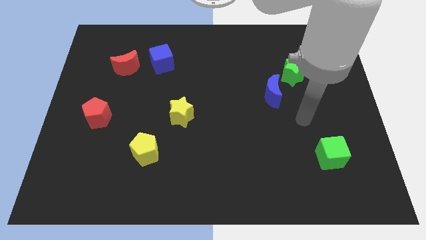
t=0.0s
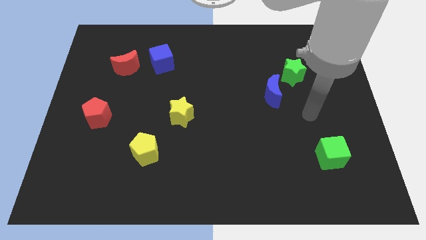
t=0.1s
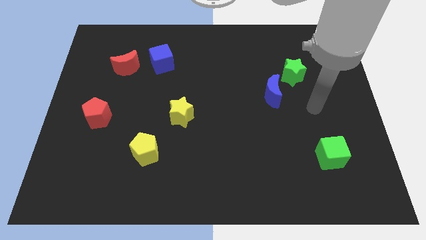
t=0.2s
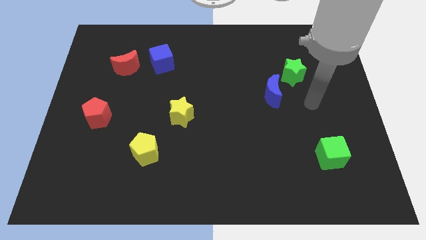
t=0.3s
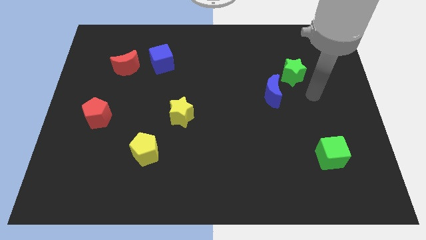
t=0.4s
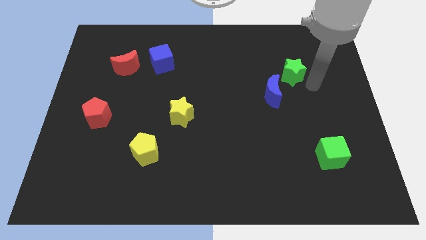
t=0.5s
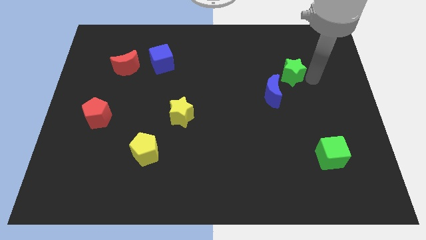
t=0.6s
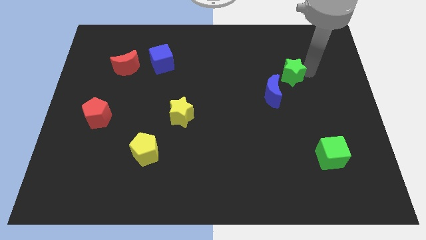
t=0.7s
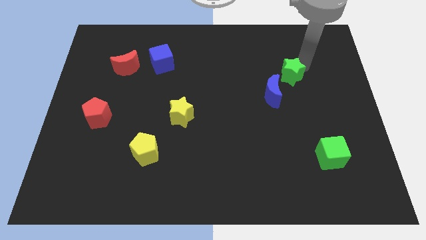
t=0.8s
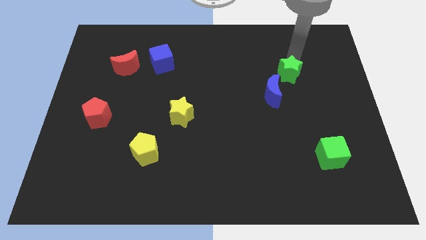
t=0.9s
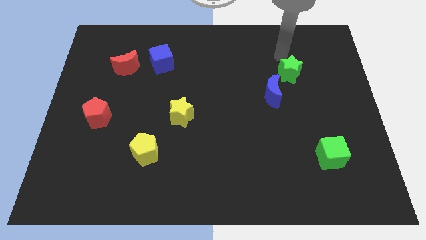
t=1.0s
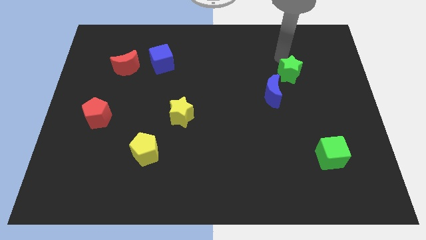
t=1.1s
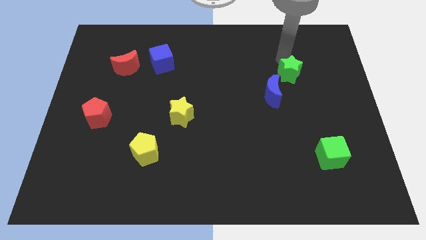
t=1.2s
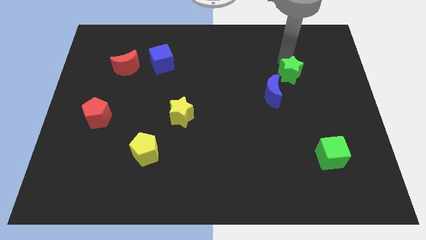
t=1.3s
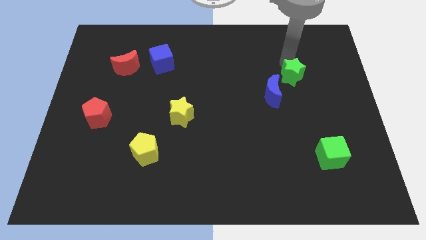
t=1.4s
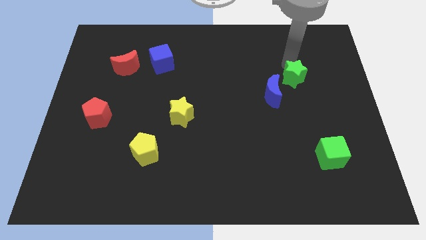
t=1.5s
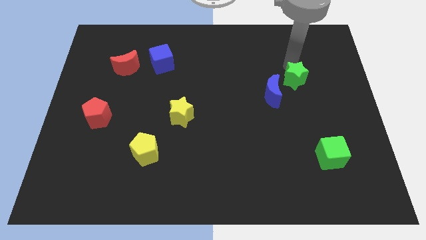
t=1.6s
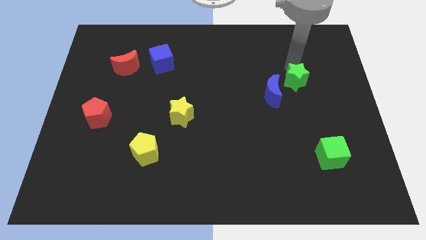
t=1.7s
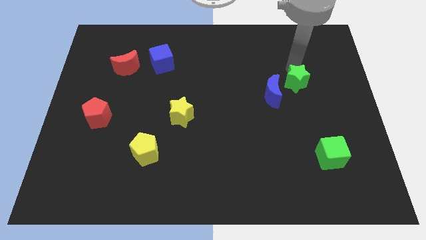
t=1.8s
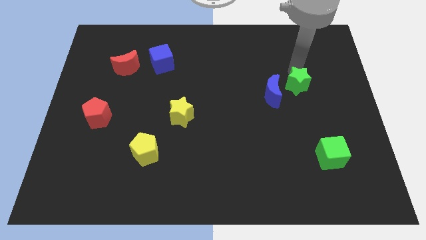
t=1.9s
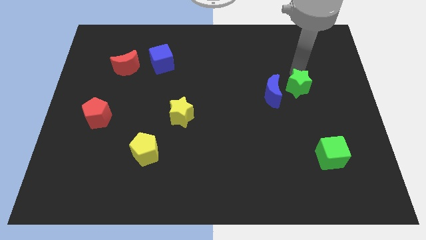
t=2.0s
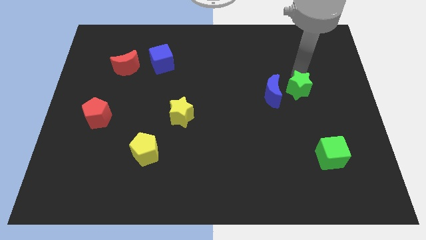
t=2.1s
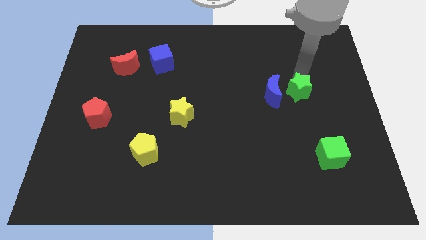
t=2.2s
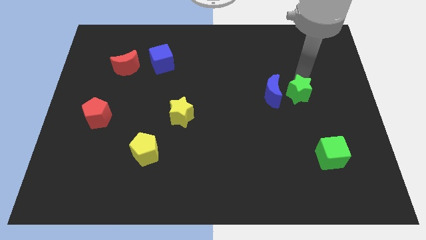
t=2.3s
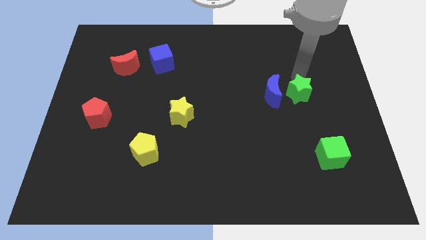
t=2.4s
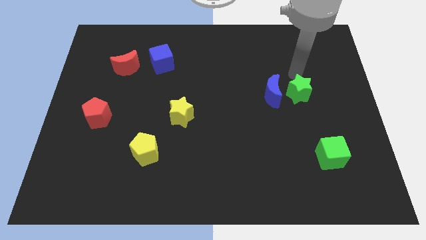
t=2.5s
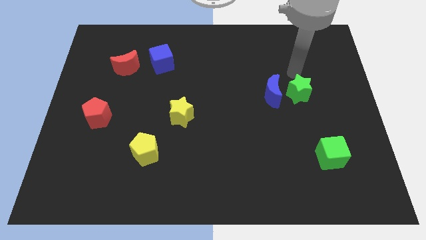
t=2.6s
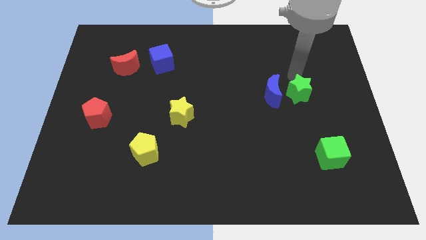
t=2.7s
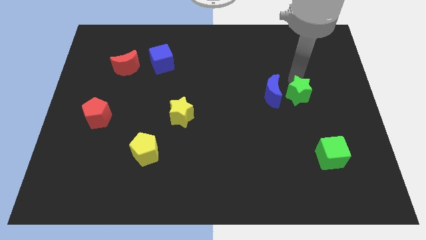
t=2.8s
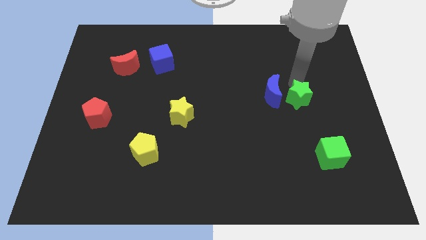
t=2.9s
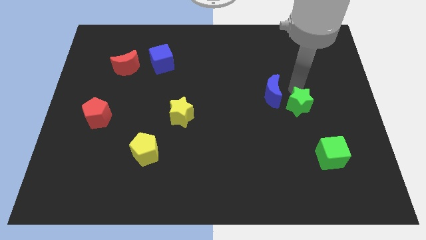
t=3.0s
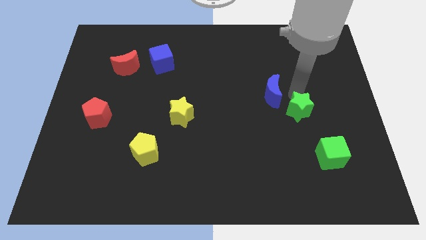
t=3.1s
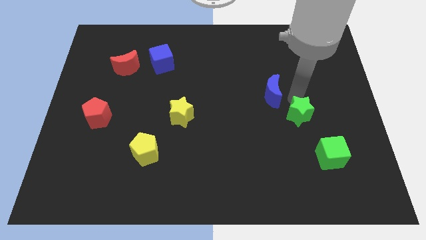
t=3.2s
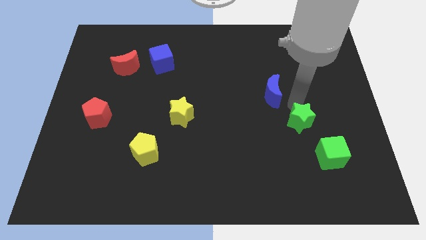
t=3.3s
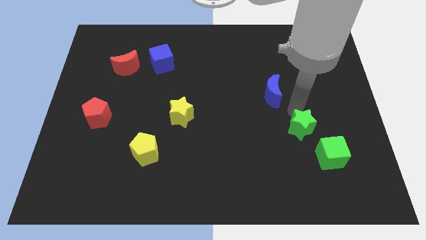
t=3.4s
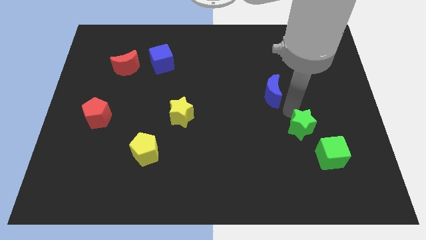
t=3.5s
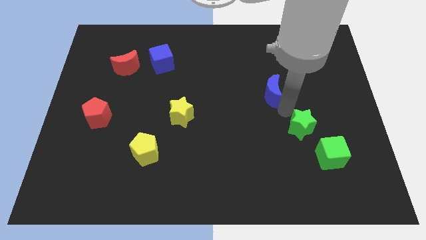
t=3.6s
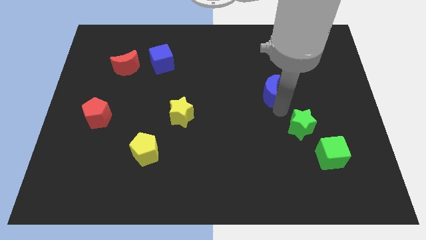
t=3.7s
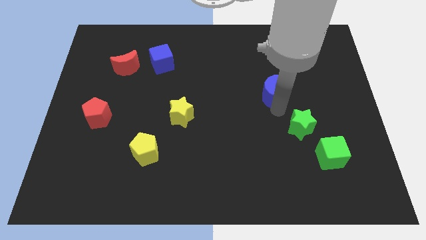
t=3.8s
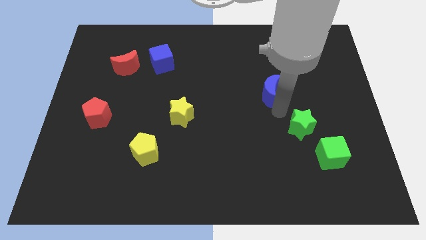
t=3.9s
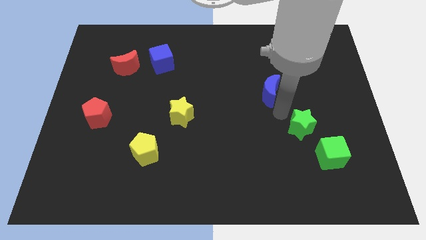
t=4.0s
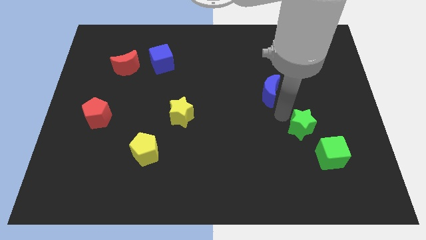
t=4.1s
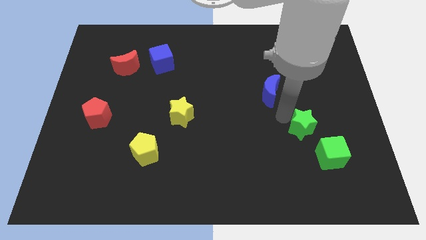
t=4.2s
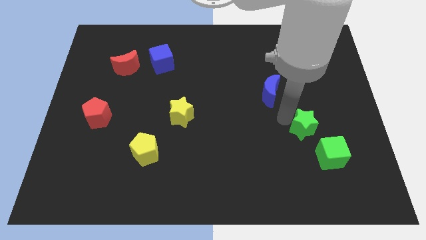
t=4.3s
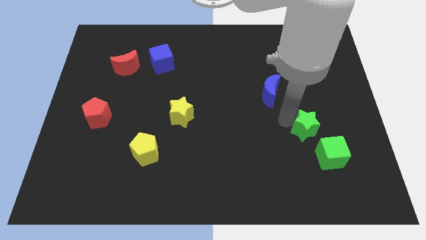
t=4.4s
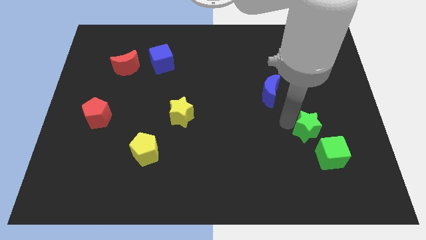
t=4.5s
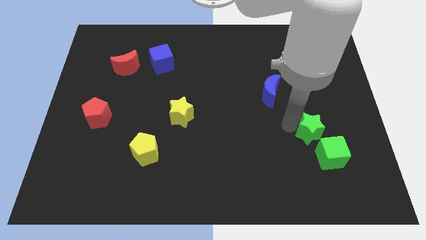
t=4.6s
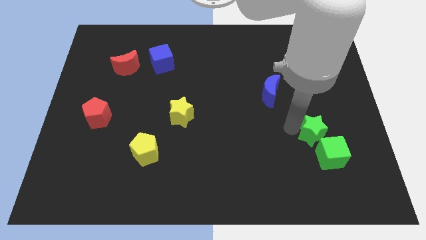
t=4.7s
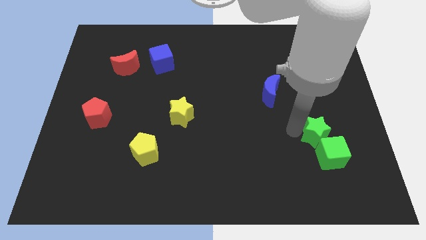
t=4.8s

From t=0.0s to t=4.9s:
slide the green star close to the green cube

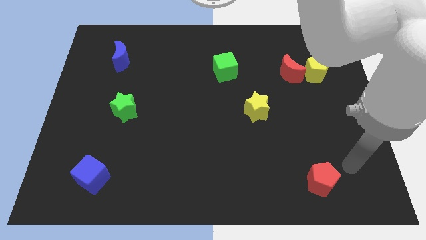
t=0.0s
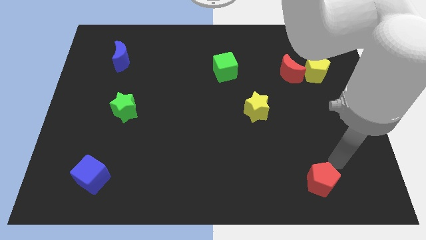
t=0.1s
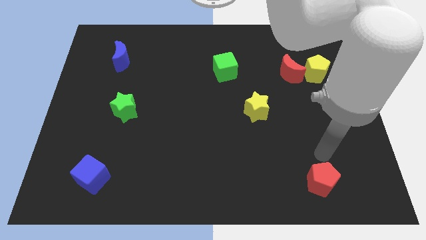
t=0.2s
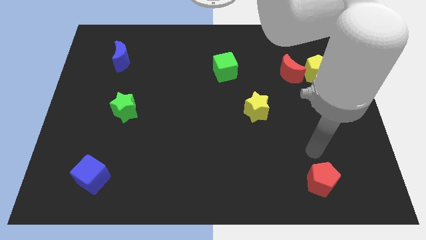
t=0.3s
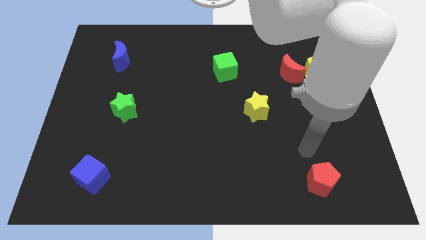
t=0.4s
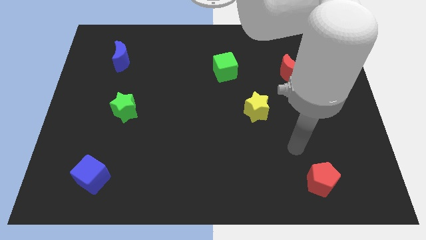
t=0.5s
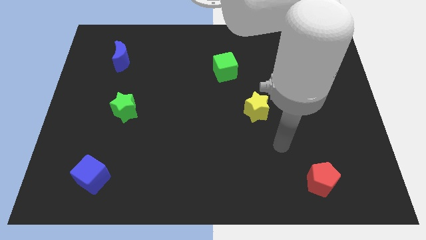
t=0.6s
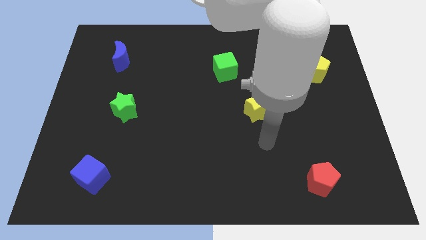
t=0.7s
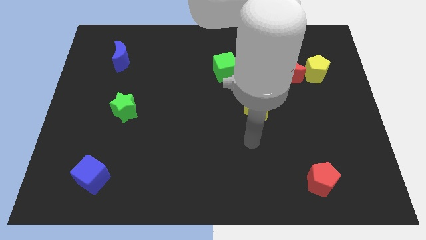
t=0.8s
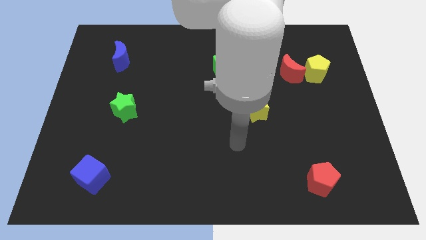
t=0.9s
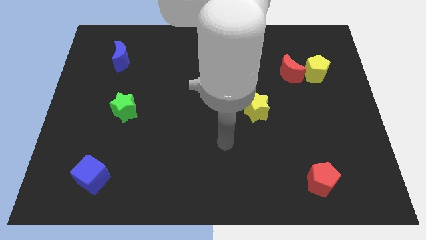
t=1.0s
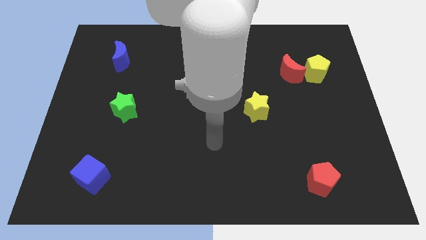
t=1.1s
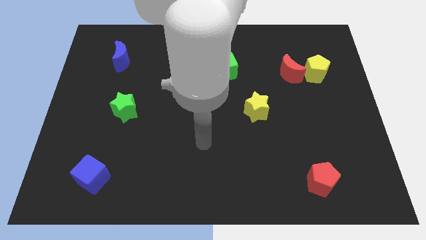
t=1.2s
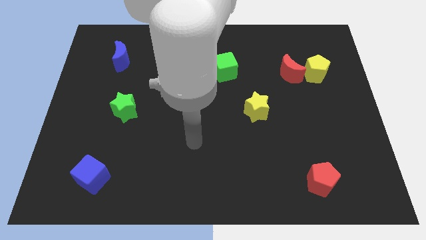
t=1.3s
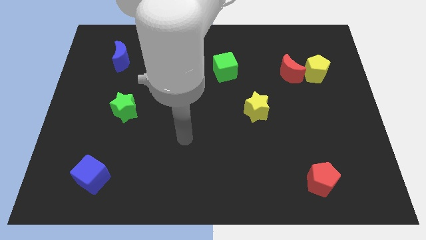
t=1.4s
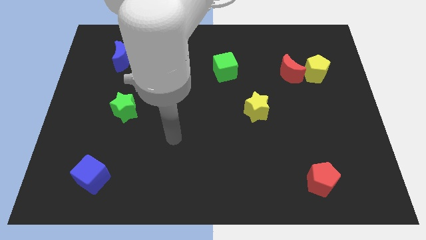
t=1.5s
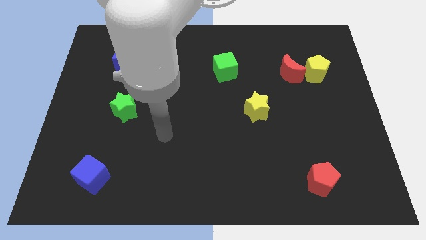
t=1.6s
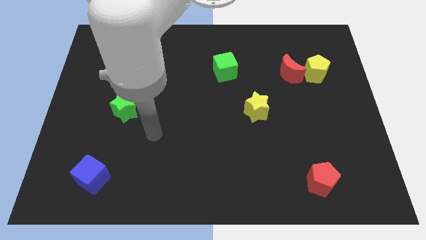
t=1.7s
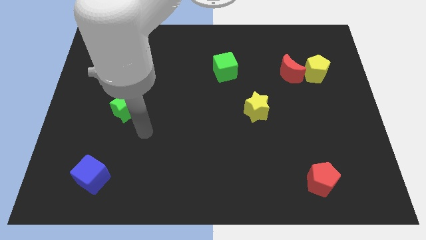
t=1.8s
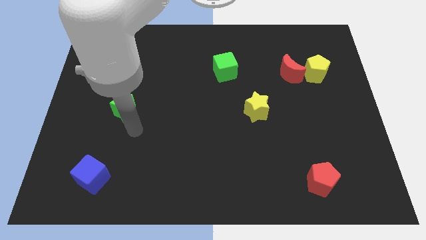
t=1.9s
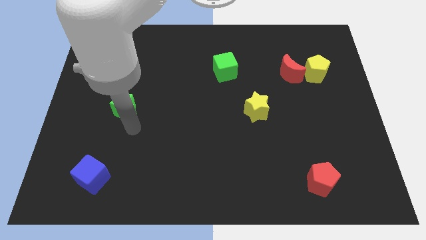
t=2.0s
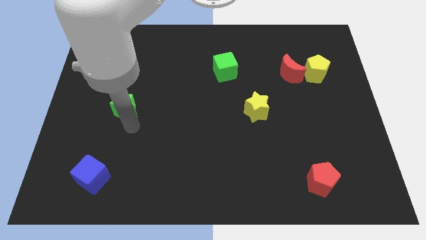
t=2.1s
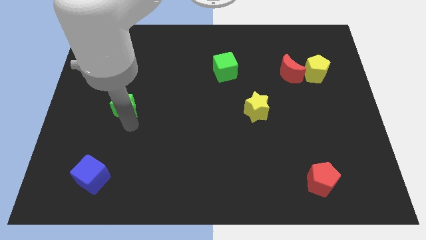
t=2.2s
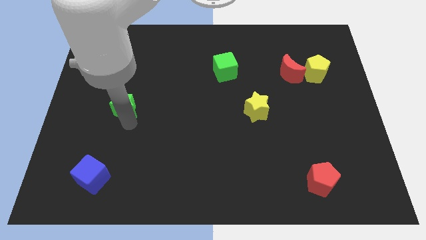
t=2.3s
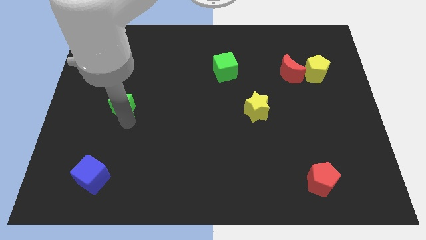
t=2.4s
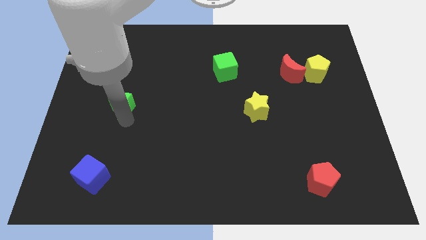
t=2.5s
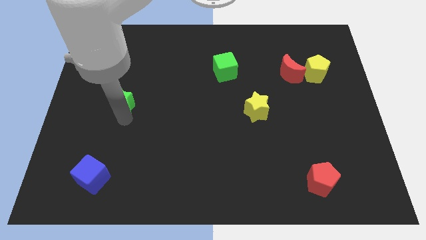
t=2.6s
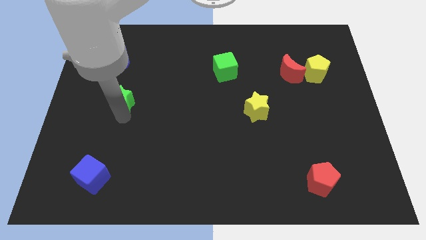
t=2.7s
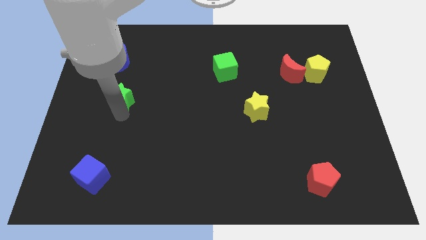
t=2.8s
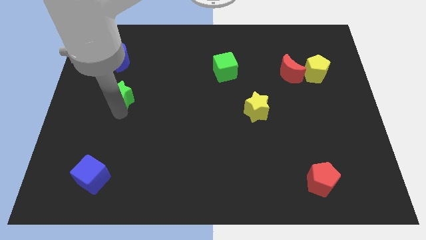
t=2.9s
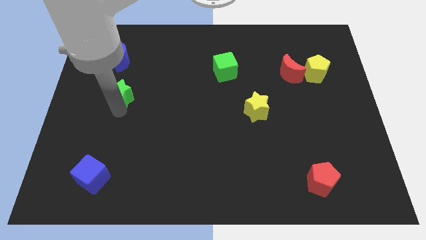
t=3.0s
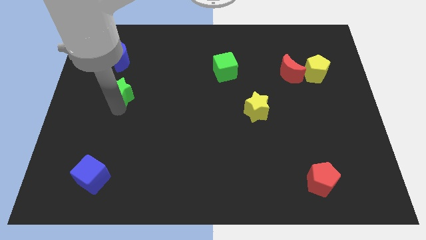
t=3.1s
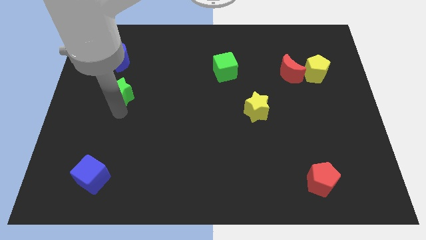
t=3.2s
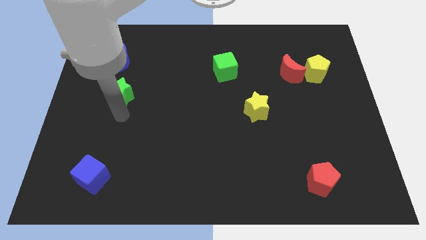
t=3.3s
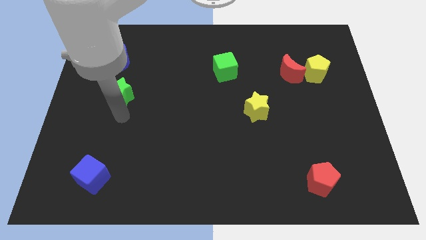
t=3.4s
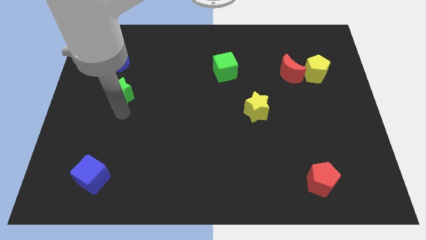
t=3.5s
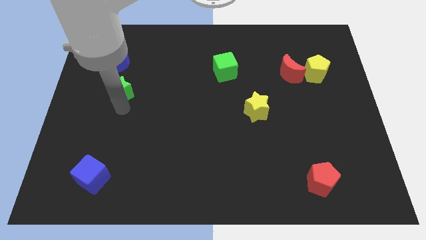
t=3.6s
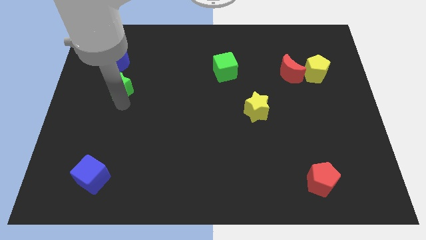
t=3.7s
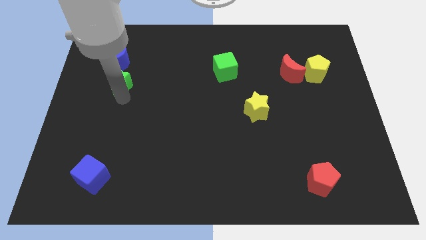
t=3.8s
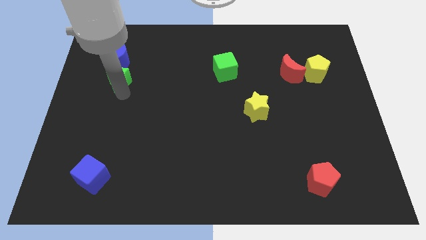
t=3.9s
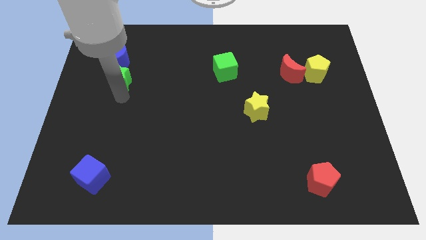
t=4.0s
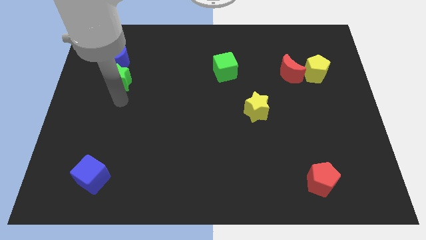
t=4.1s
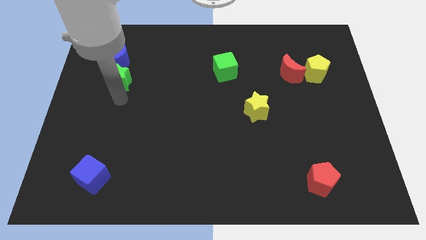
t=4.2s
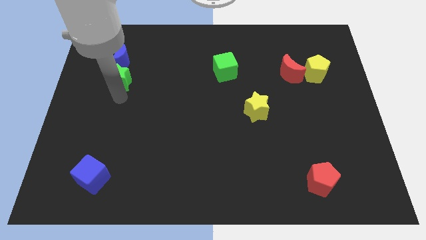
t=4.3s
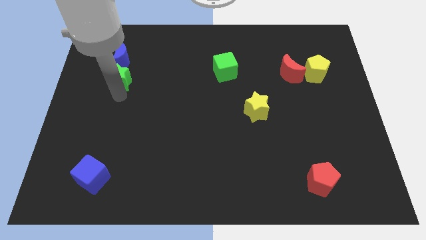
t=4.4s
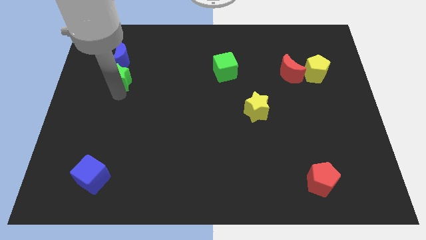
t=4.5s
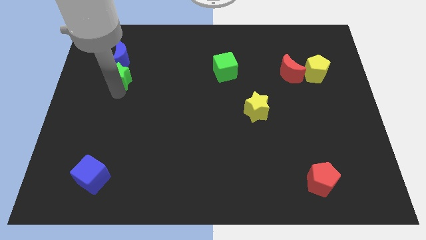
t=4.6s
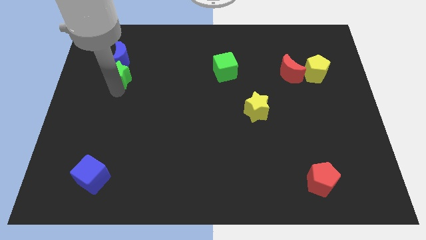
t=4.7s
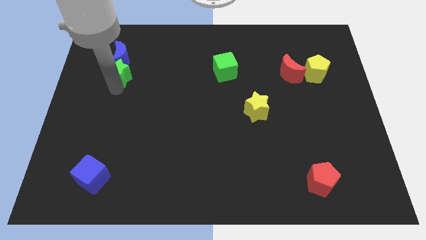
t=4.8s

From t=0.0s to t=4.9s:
push the green star to the blue moon
